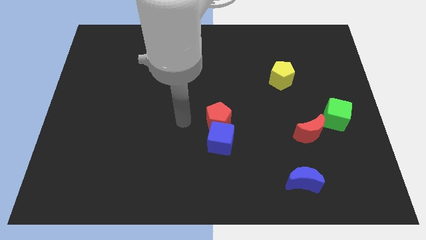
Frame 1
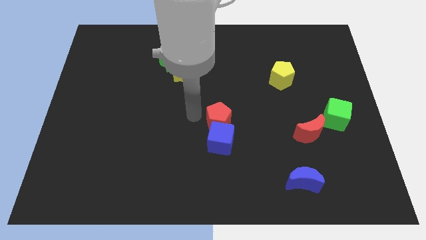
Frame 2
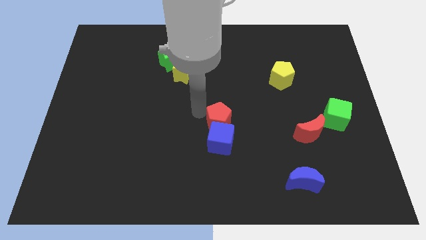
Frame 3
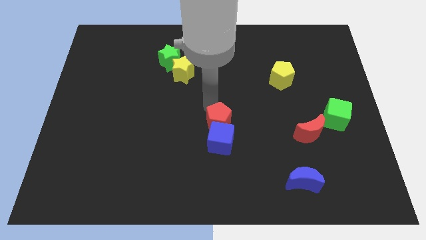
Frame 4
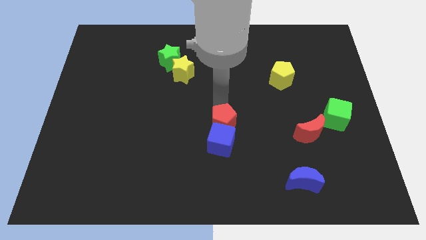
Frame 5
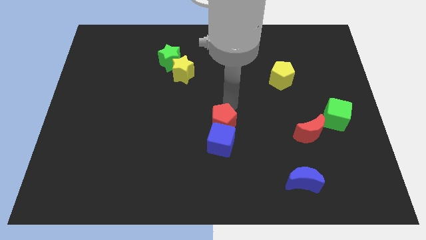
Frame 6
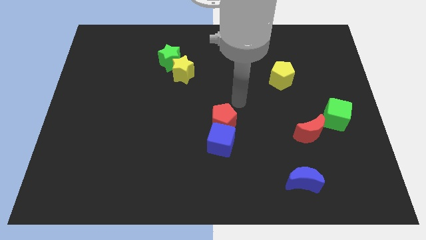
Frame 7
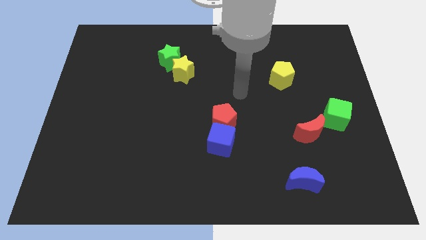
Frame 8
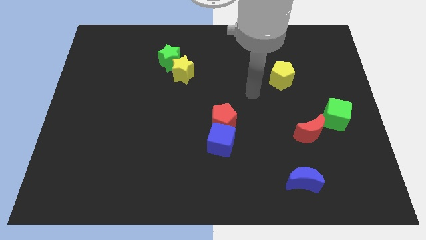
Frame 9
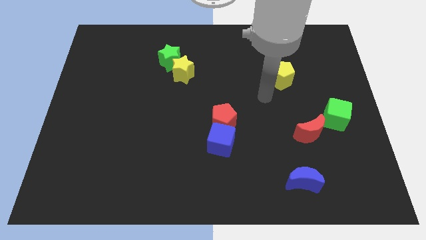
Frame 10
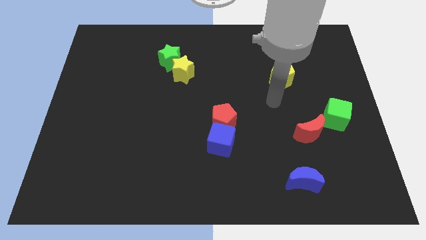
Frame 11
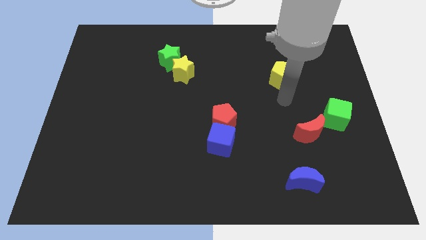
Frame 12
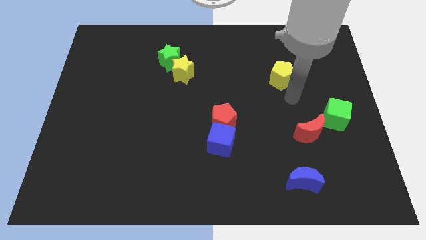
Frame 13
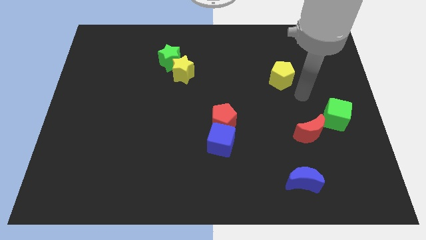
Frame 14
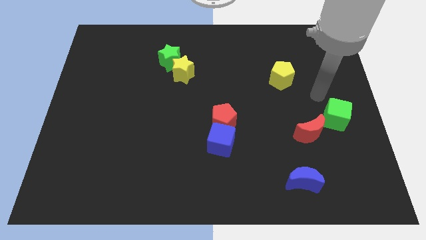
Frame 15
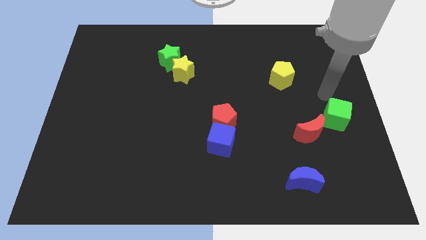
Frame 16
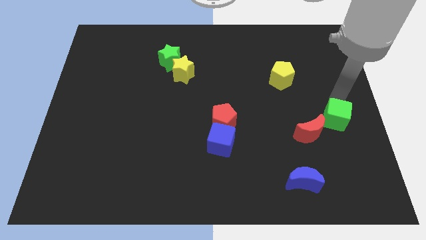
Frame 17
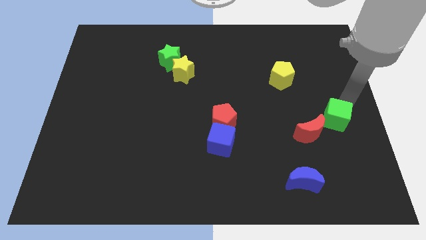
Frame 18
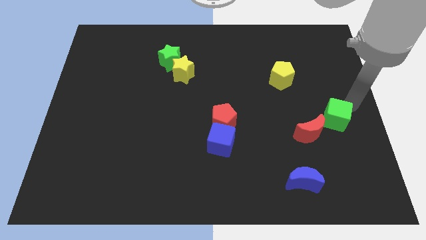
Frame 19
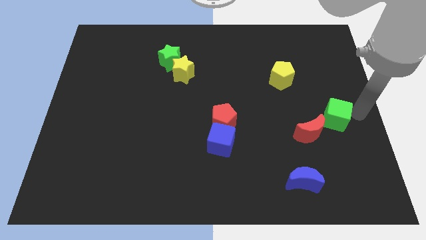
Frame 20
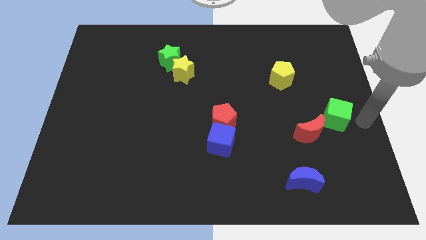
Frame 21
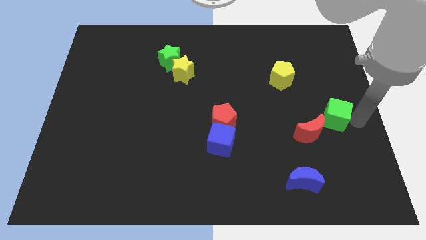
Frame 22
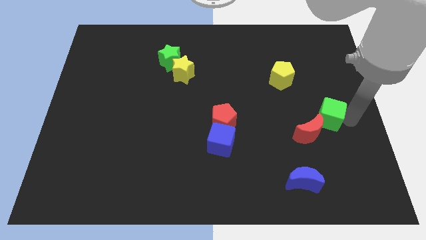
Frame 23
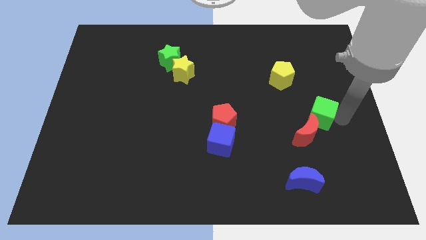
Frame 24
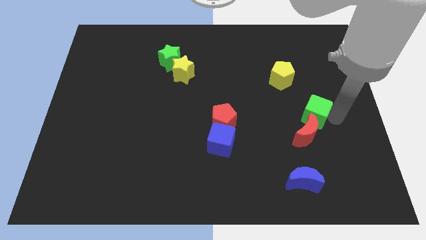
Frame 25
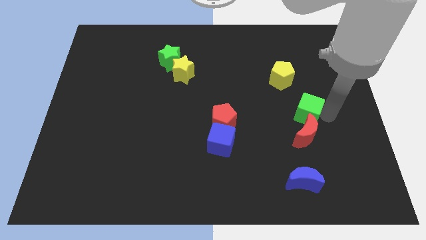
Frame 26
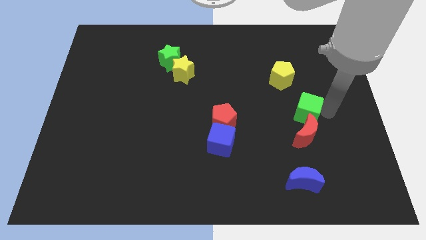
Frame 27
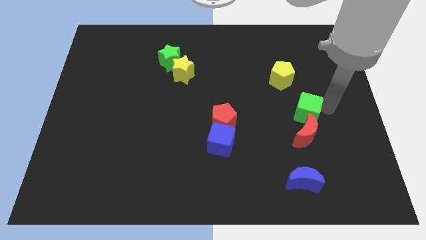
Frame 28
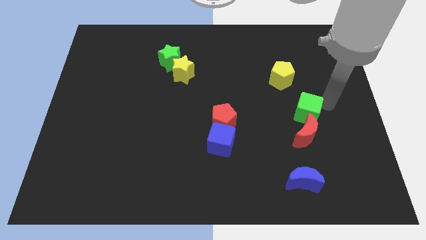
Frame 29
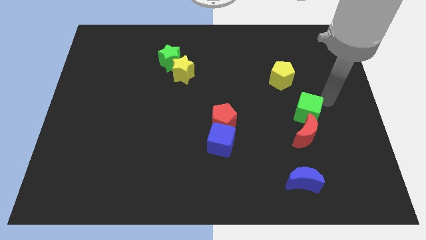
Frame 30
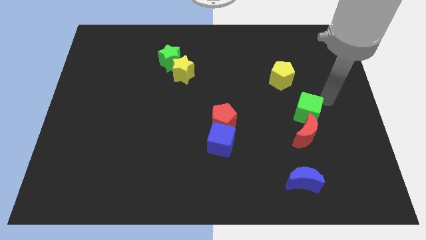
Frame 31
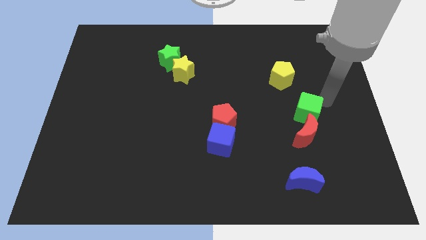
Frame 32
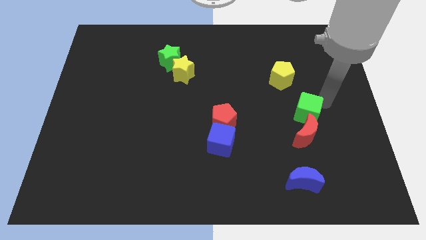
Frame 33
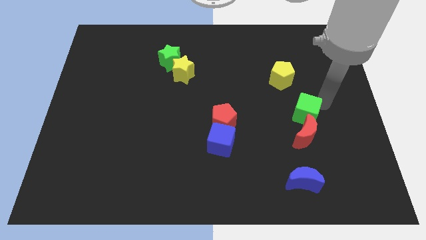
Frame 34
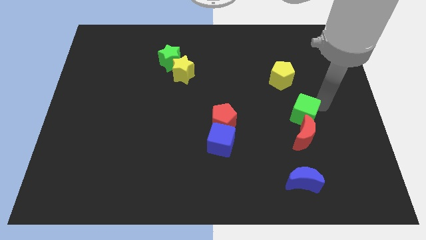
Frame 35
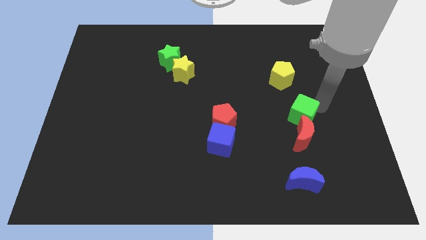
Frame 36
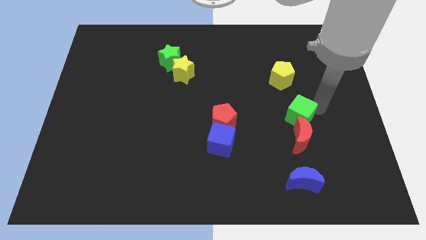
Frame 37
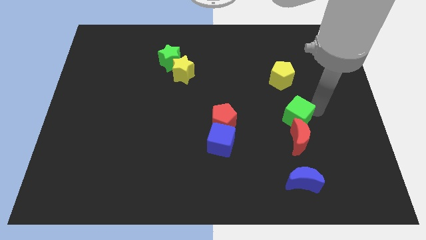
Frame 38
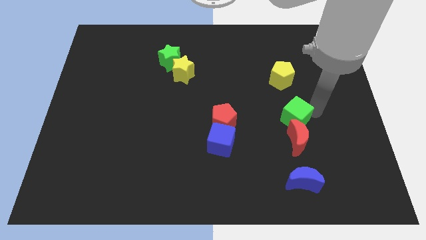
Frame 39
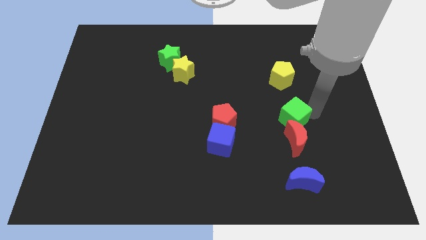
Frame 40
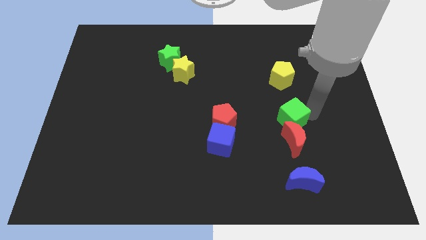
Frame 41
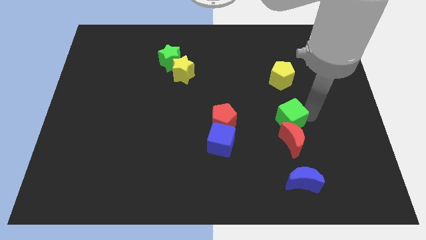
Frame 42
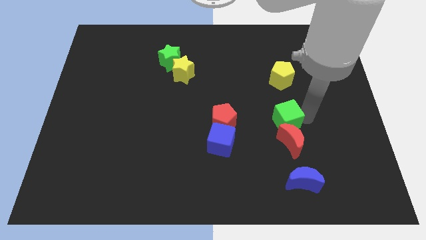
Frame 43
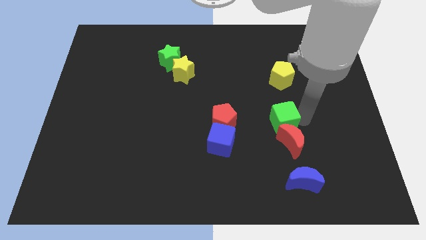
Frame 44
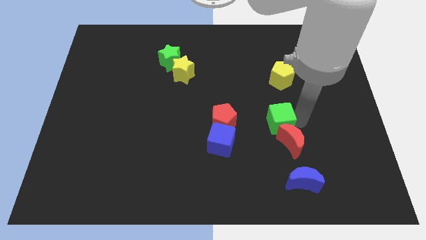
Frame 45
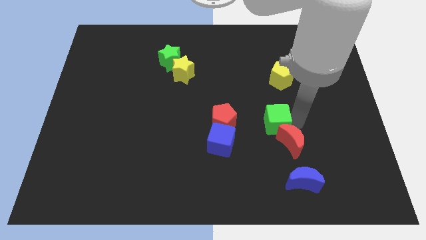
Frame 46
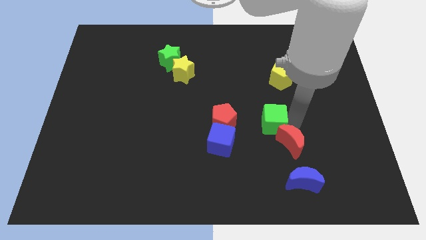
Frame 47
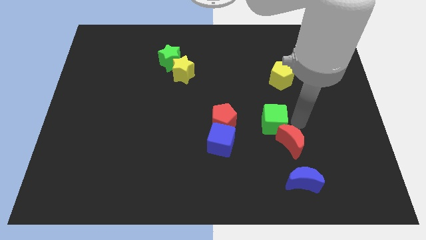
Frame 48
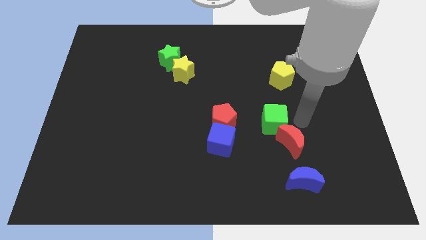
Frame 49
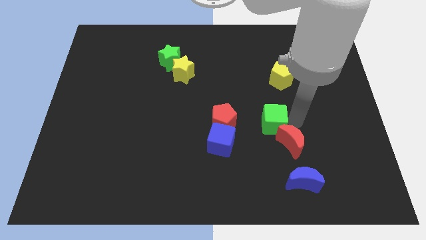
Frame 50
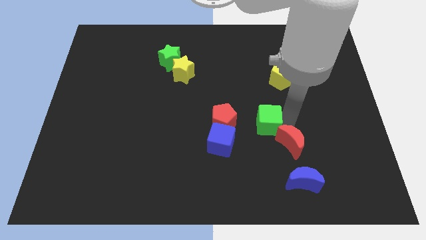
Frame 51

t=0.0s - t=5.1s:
put the green cube to the top right of the blue cube

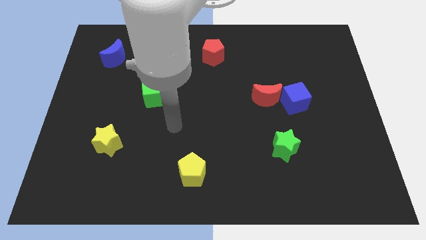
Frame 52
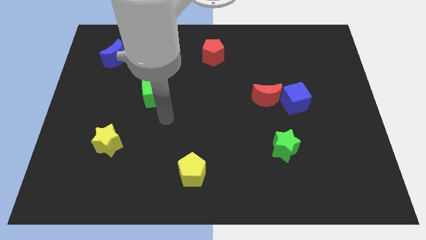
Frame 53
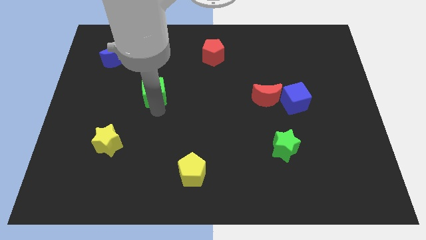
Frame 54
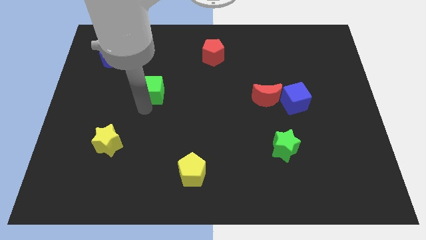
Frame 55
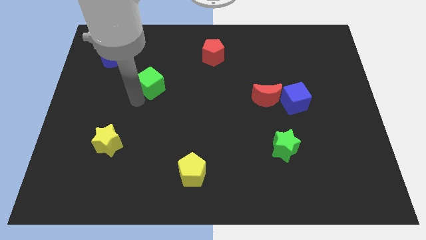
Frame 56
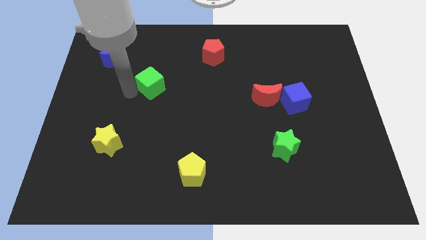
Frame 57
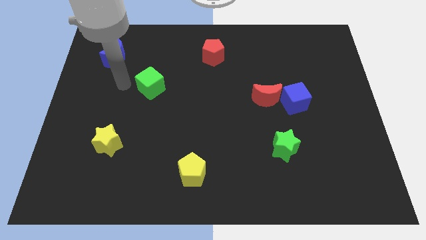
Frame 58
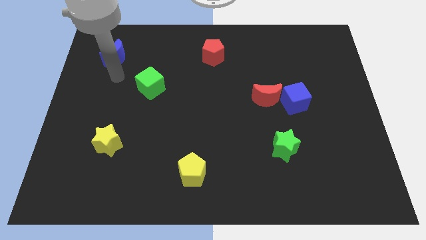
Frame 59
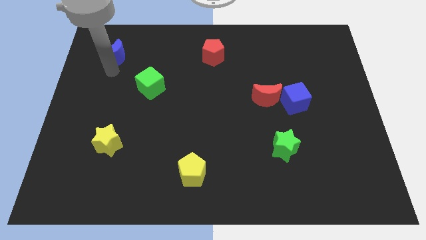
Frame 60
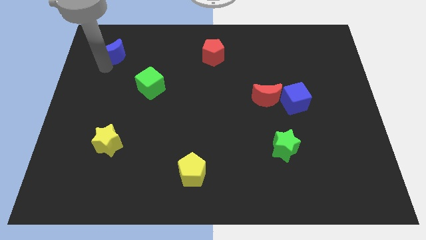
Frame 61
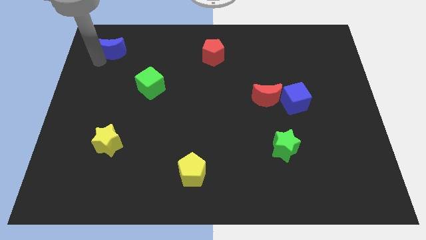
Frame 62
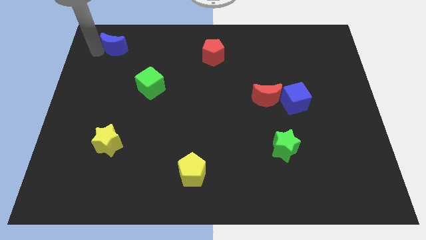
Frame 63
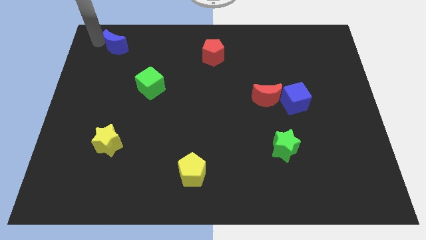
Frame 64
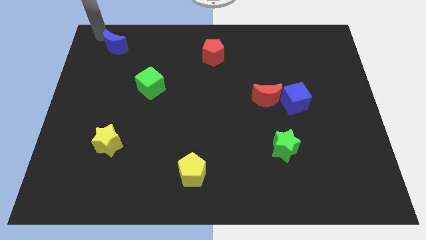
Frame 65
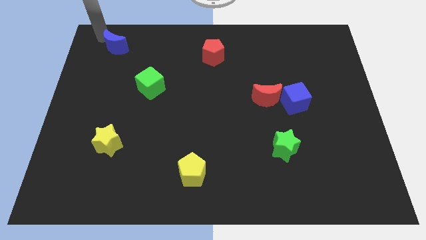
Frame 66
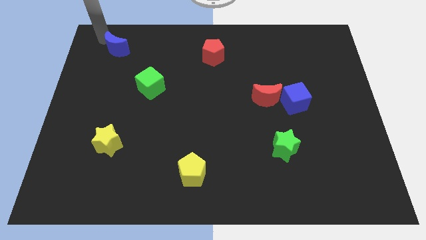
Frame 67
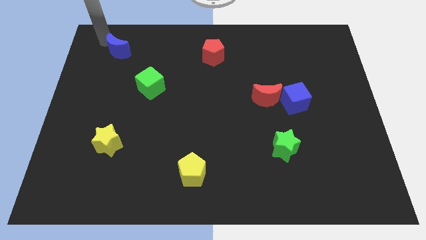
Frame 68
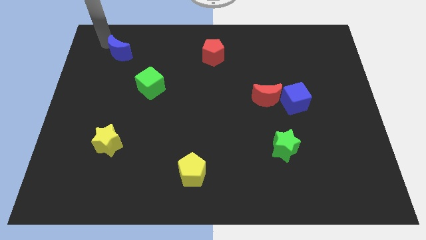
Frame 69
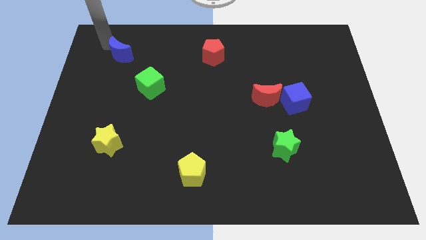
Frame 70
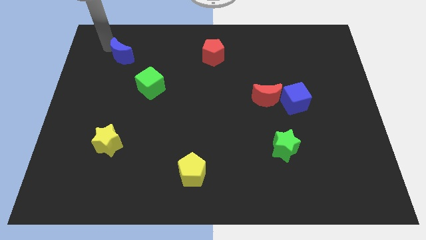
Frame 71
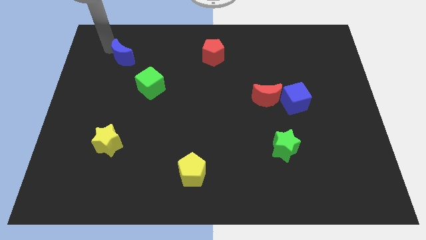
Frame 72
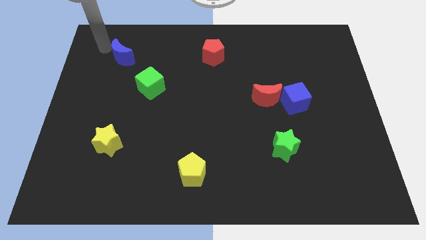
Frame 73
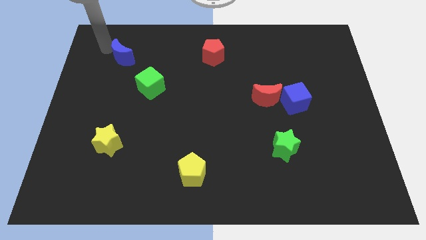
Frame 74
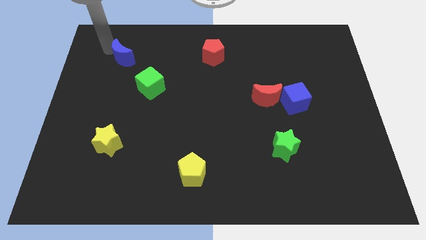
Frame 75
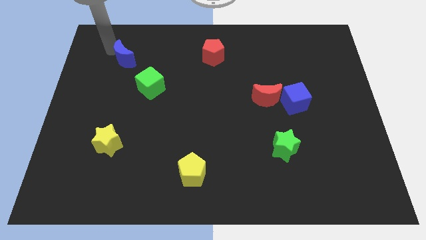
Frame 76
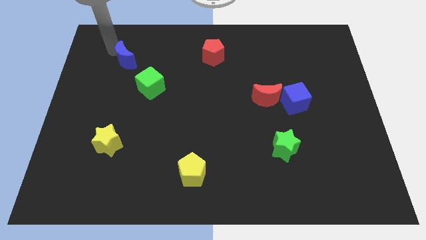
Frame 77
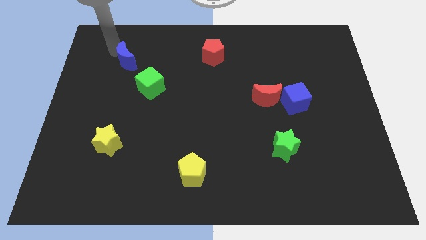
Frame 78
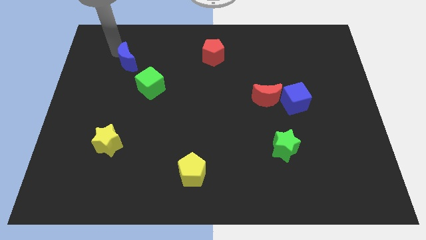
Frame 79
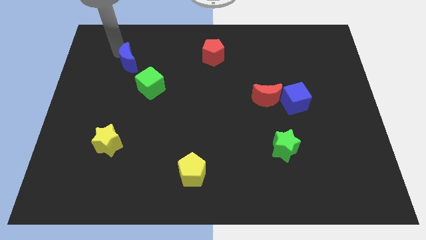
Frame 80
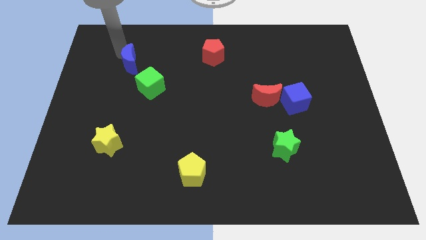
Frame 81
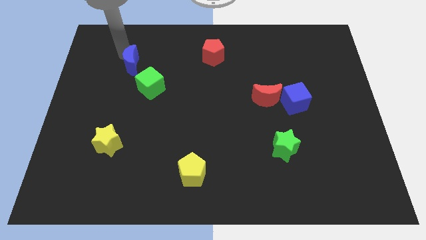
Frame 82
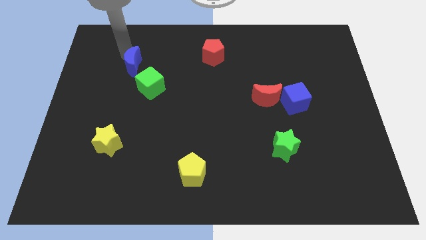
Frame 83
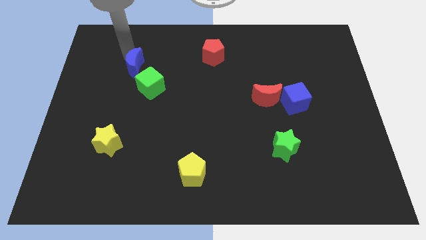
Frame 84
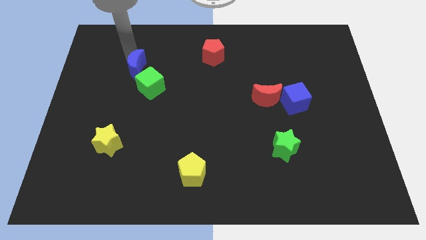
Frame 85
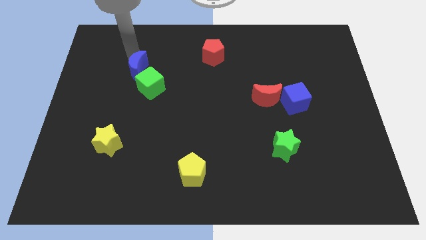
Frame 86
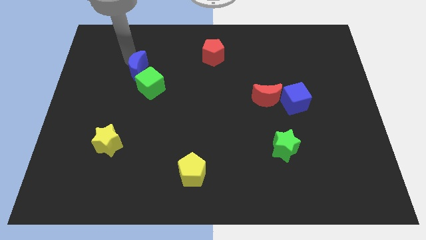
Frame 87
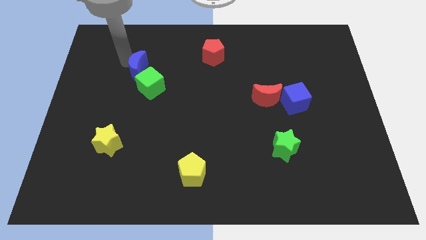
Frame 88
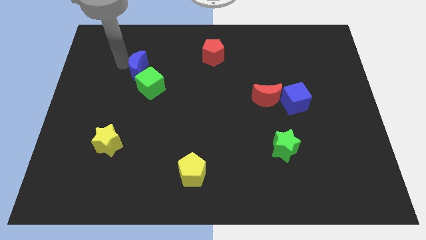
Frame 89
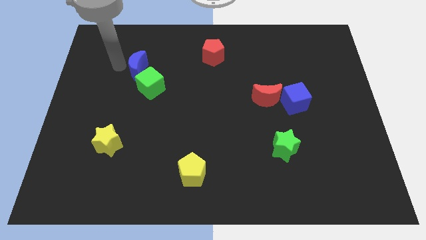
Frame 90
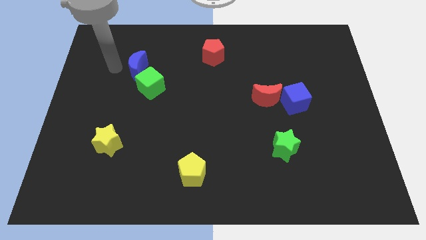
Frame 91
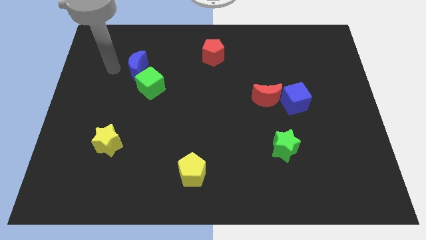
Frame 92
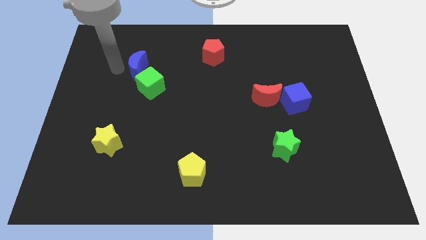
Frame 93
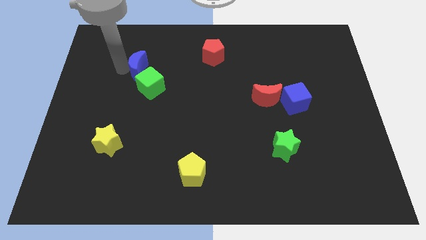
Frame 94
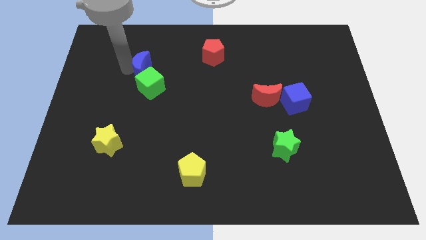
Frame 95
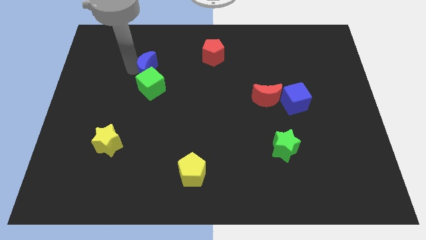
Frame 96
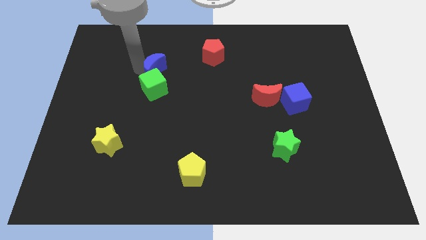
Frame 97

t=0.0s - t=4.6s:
put the blue moon diagonally up and to the right of the green cube
